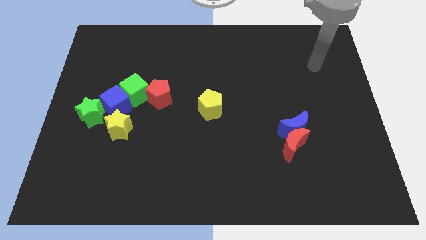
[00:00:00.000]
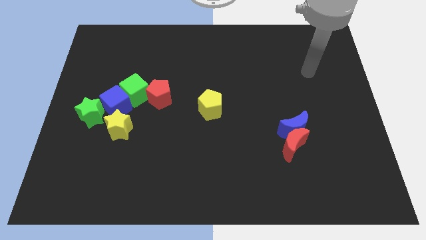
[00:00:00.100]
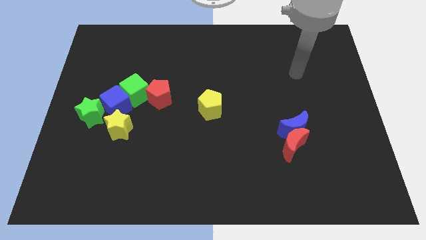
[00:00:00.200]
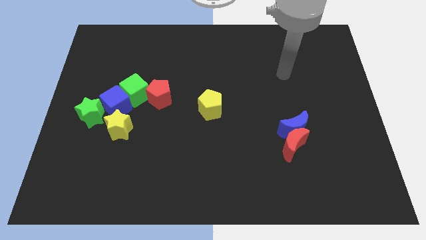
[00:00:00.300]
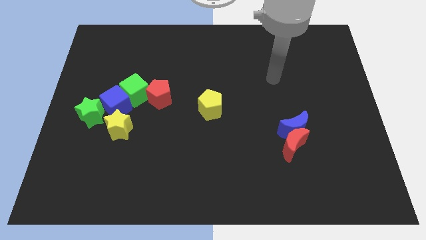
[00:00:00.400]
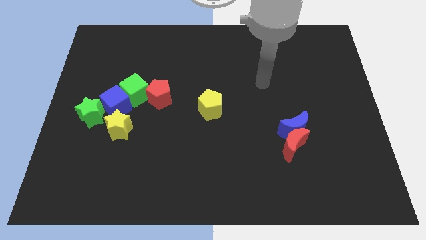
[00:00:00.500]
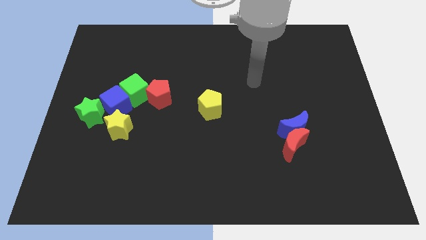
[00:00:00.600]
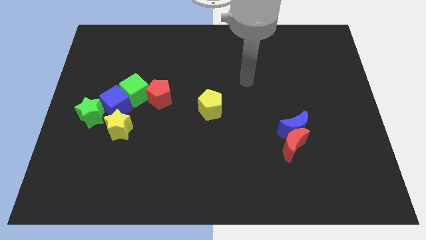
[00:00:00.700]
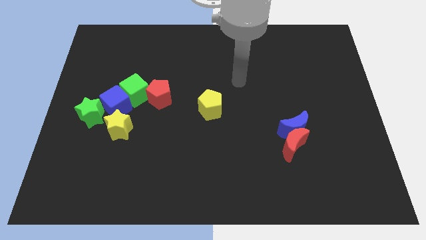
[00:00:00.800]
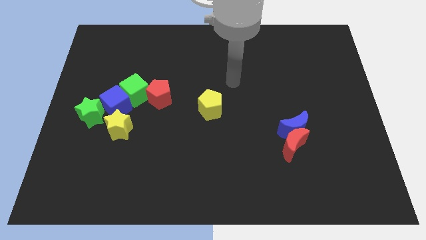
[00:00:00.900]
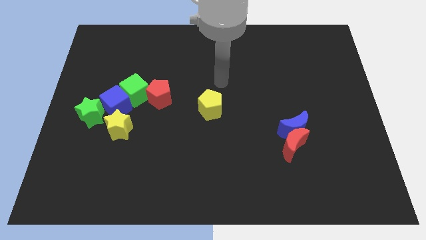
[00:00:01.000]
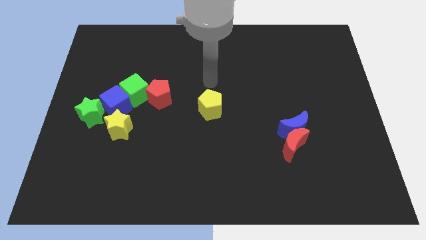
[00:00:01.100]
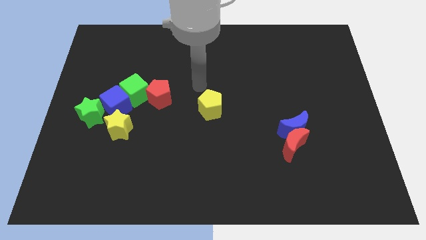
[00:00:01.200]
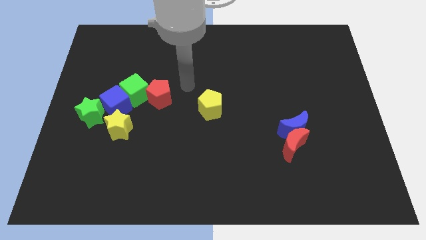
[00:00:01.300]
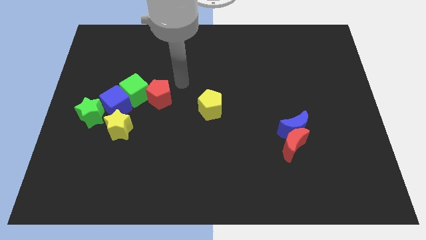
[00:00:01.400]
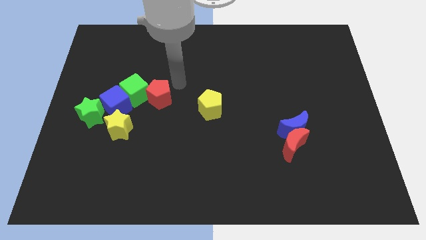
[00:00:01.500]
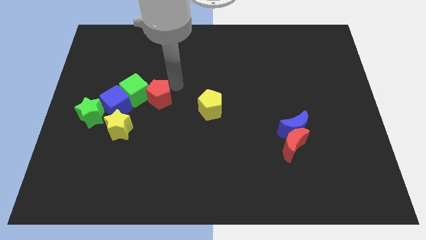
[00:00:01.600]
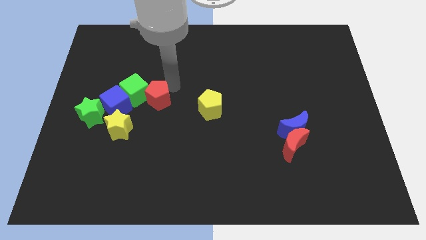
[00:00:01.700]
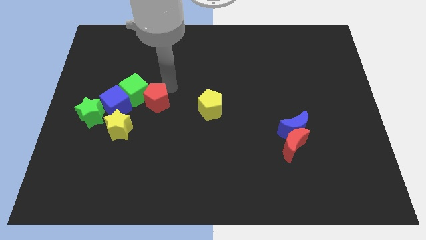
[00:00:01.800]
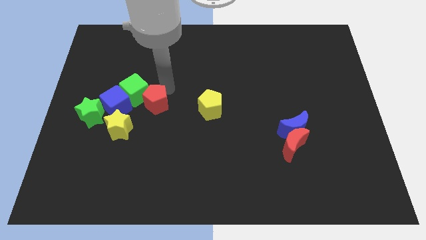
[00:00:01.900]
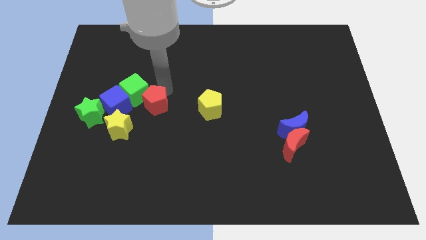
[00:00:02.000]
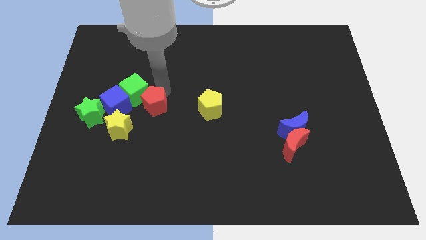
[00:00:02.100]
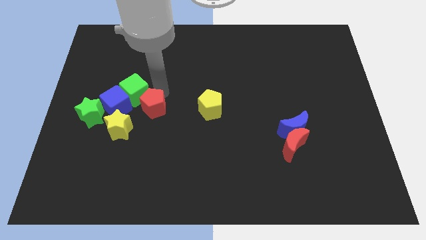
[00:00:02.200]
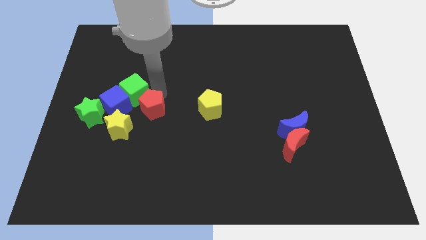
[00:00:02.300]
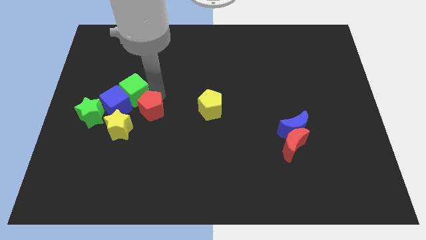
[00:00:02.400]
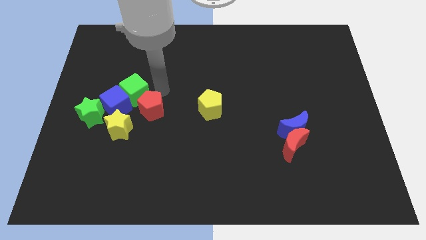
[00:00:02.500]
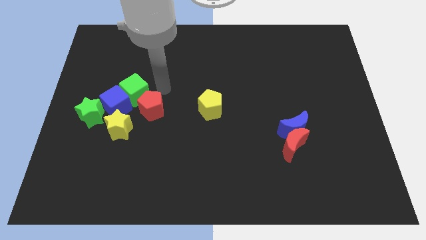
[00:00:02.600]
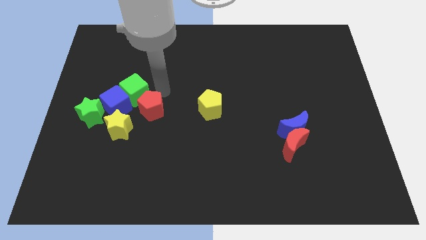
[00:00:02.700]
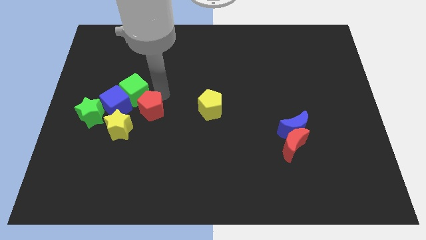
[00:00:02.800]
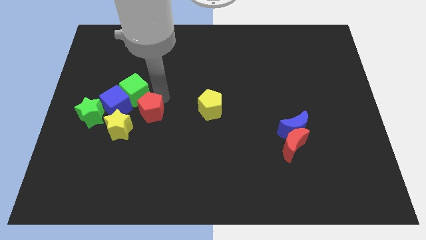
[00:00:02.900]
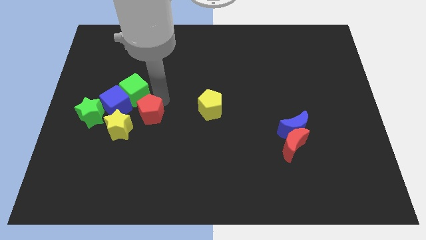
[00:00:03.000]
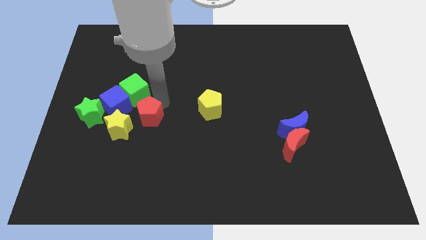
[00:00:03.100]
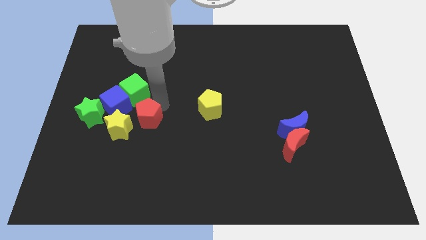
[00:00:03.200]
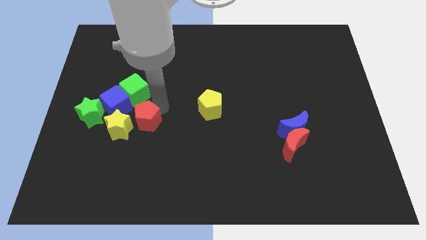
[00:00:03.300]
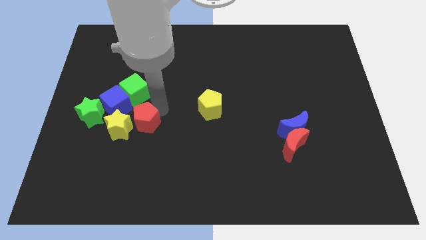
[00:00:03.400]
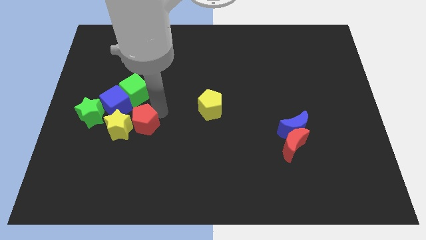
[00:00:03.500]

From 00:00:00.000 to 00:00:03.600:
slightly slide the red pentagon diagonally down and to the left

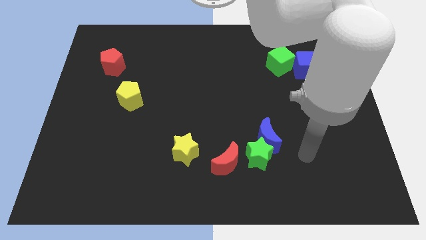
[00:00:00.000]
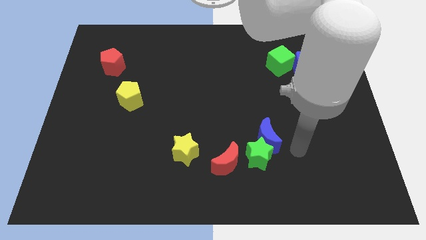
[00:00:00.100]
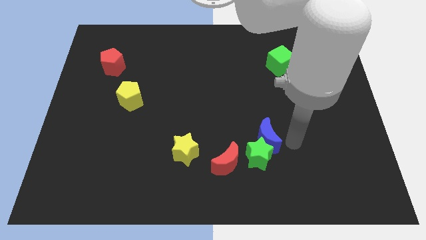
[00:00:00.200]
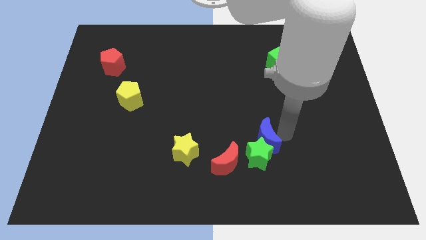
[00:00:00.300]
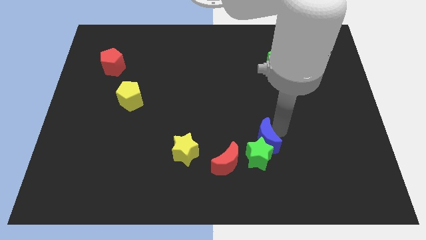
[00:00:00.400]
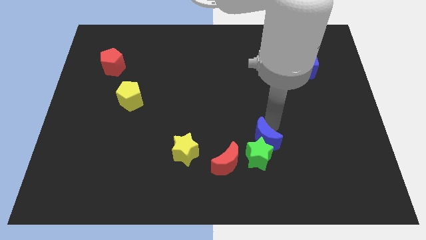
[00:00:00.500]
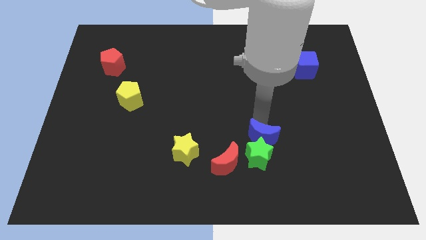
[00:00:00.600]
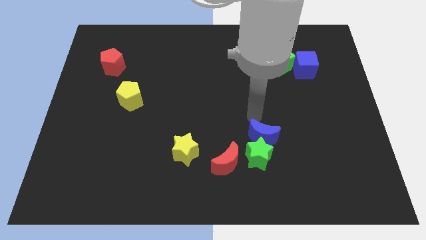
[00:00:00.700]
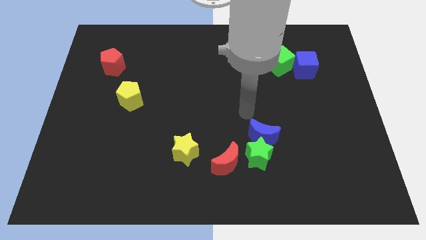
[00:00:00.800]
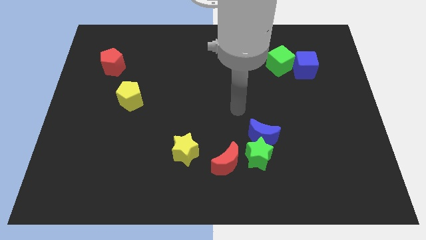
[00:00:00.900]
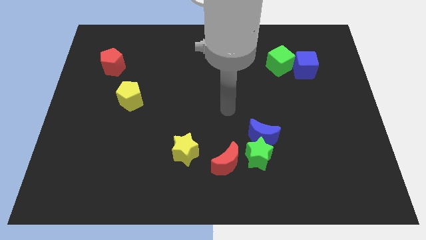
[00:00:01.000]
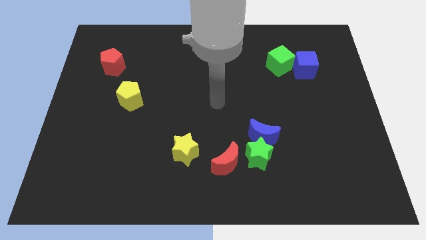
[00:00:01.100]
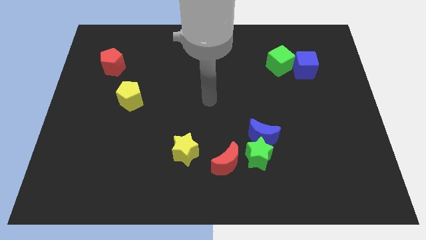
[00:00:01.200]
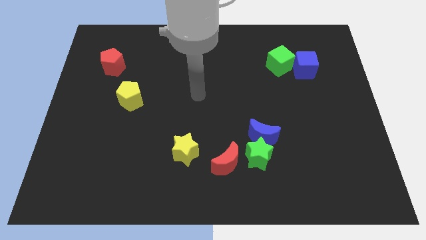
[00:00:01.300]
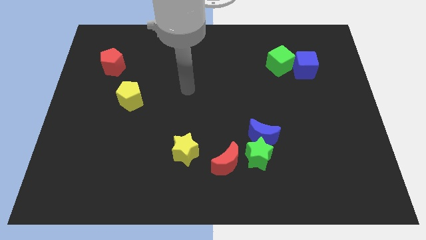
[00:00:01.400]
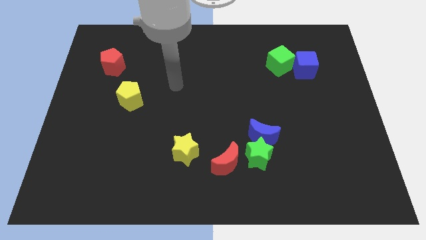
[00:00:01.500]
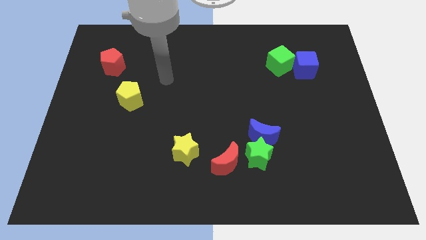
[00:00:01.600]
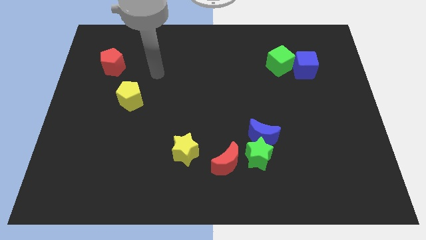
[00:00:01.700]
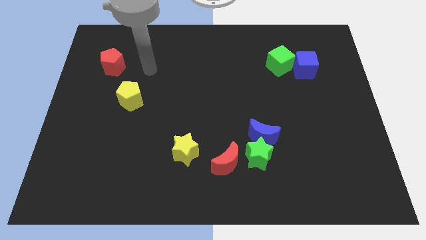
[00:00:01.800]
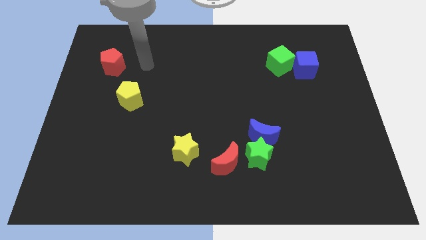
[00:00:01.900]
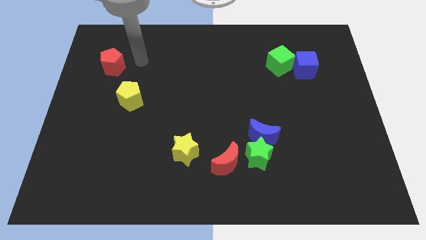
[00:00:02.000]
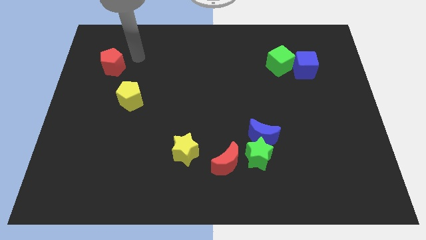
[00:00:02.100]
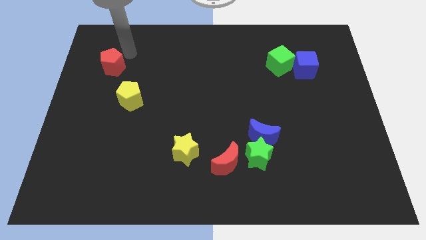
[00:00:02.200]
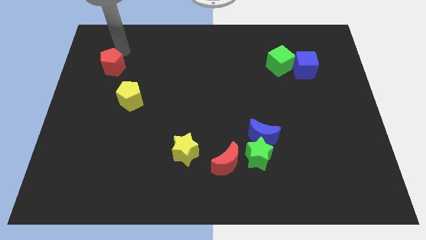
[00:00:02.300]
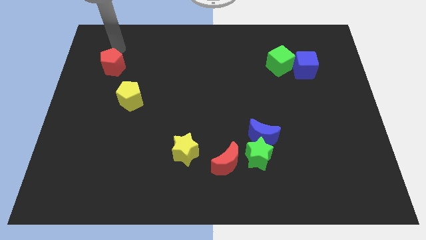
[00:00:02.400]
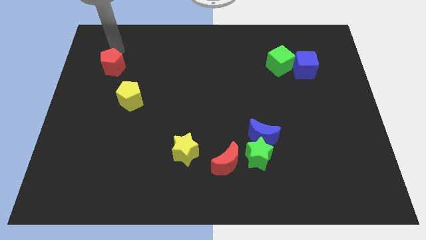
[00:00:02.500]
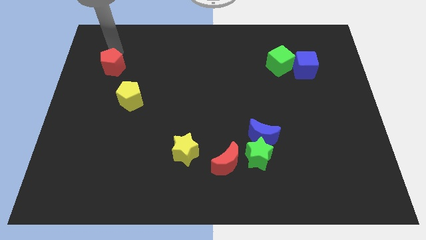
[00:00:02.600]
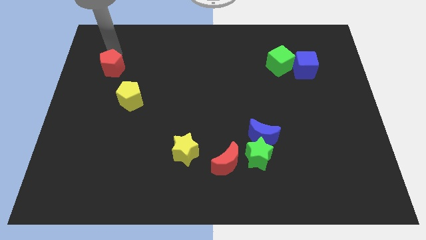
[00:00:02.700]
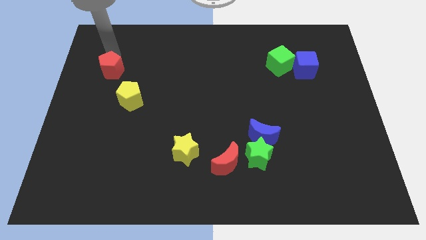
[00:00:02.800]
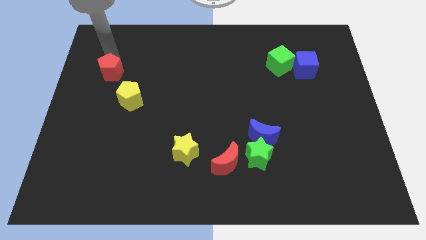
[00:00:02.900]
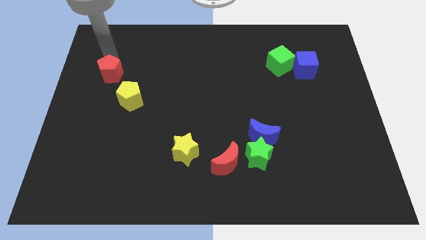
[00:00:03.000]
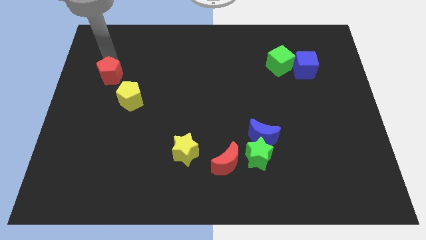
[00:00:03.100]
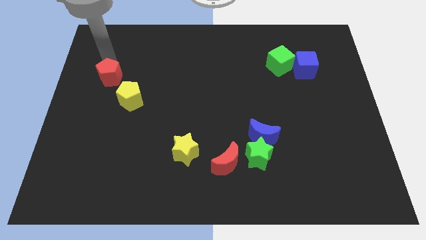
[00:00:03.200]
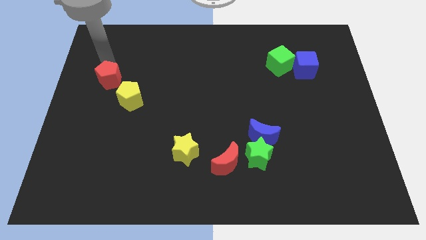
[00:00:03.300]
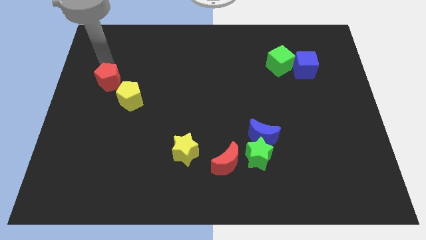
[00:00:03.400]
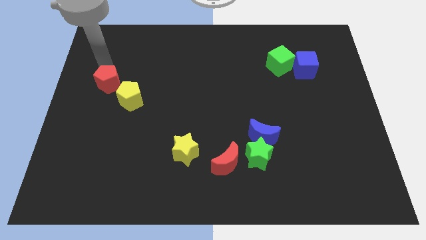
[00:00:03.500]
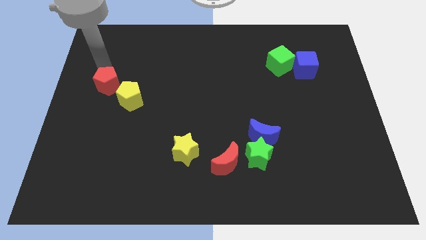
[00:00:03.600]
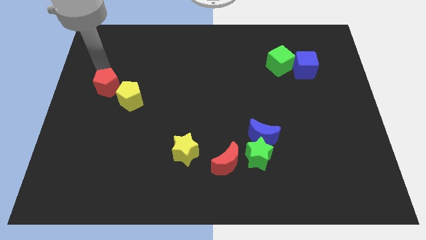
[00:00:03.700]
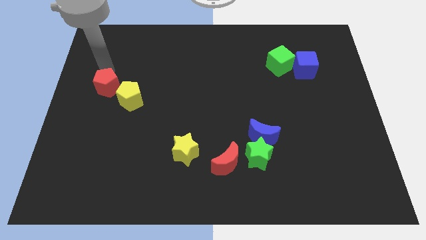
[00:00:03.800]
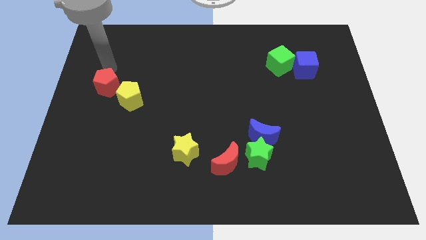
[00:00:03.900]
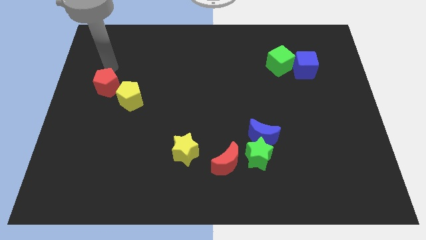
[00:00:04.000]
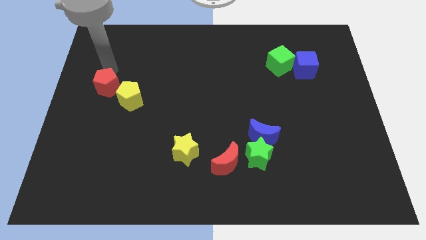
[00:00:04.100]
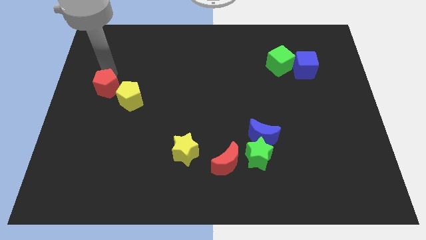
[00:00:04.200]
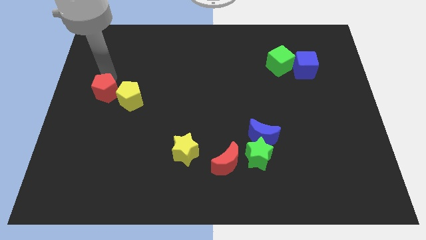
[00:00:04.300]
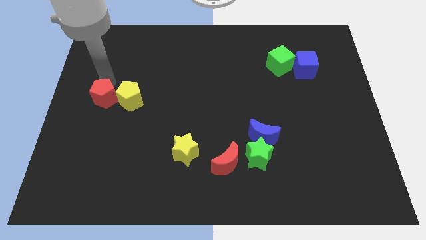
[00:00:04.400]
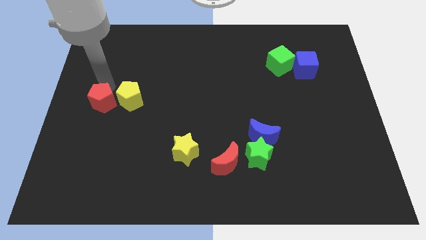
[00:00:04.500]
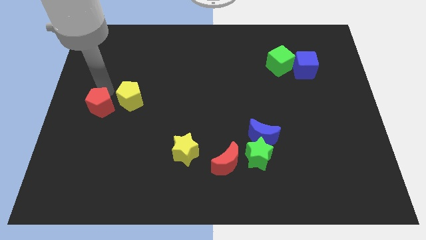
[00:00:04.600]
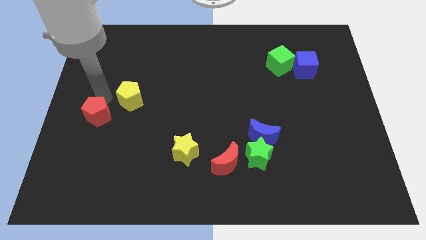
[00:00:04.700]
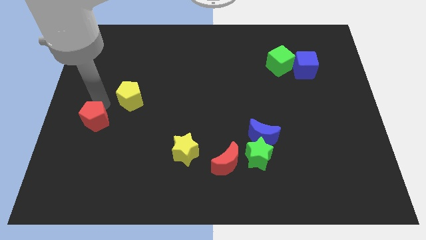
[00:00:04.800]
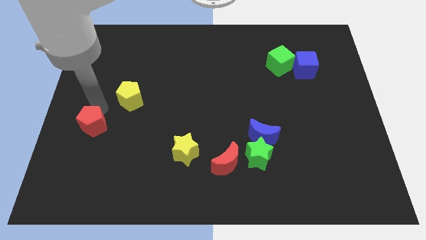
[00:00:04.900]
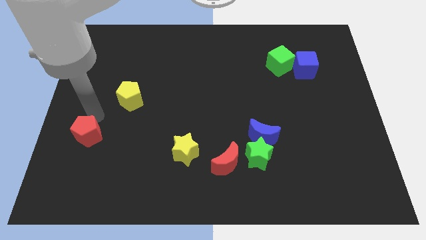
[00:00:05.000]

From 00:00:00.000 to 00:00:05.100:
move the red pentagon downwards
